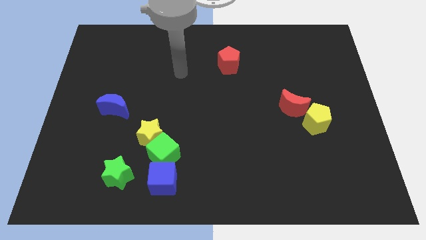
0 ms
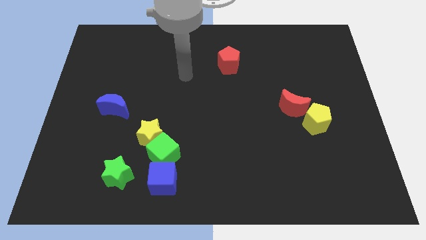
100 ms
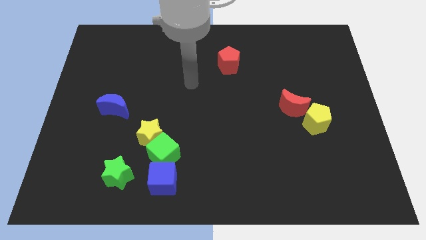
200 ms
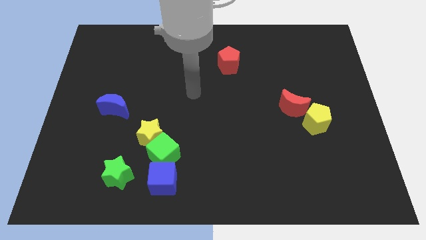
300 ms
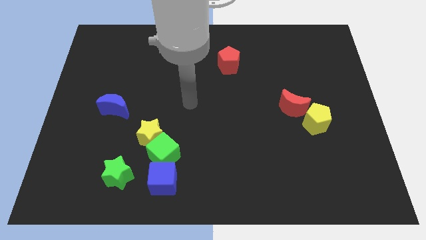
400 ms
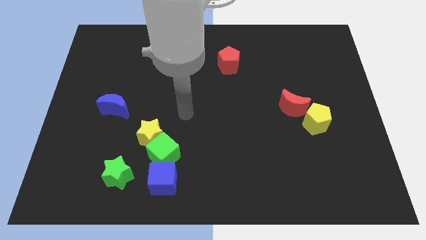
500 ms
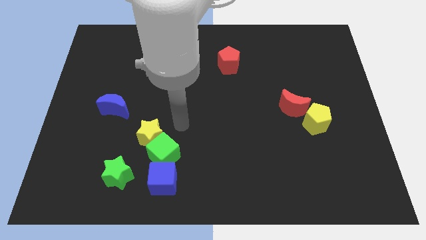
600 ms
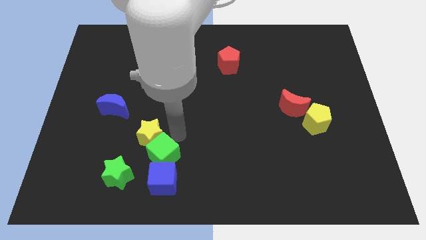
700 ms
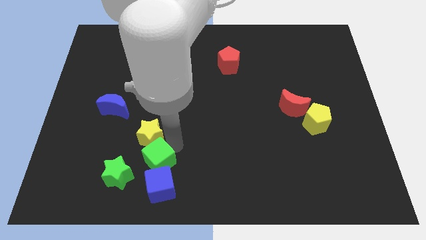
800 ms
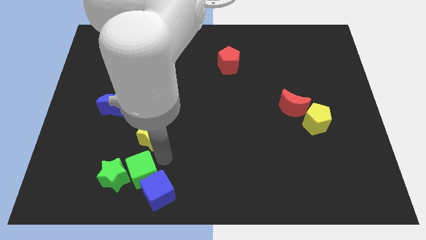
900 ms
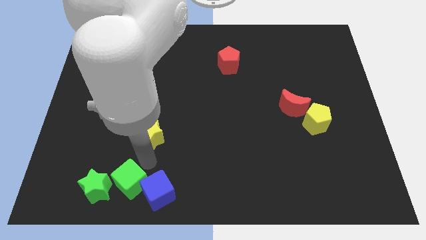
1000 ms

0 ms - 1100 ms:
pull the yellow star apart from the green cube

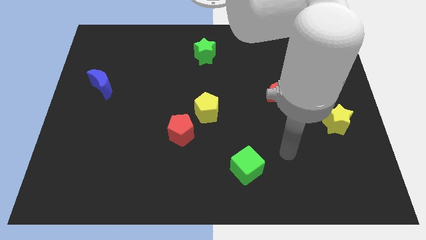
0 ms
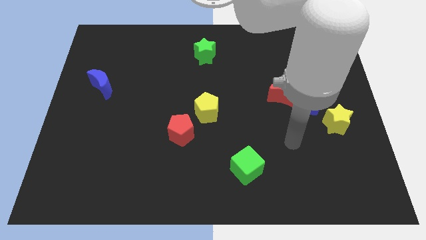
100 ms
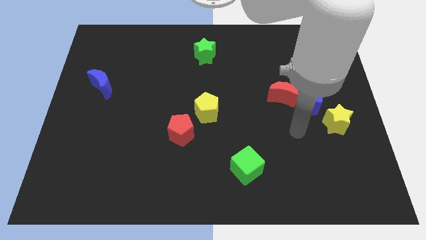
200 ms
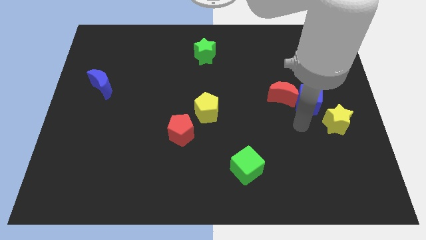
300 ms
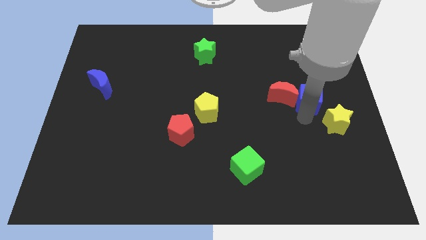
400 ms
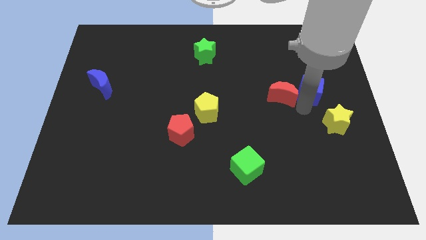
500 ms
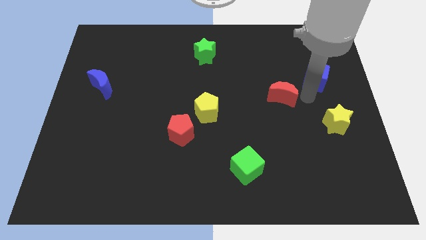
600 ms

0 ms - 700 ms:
move the red moon away from the blue cube

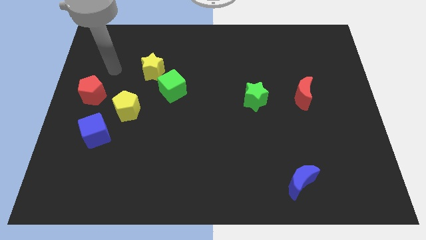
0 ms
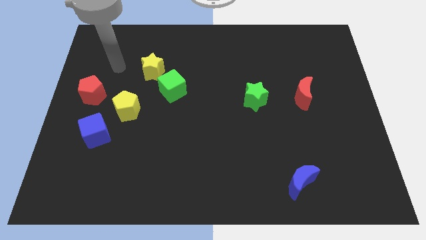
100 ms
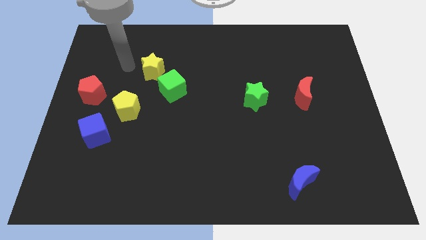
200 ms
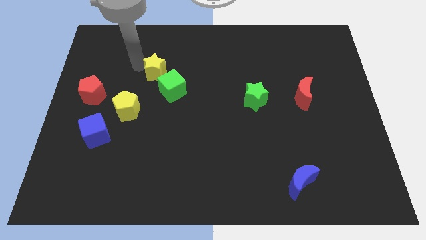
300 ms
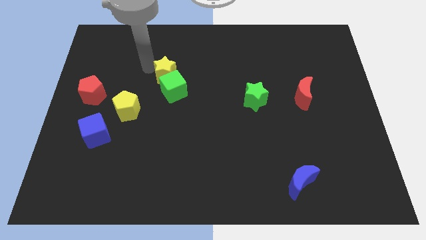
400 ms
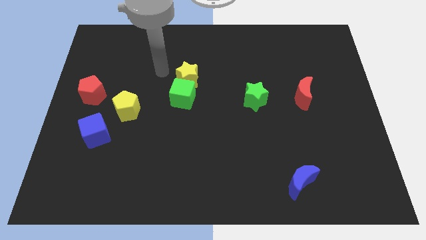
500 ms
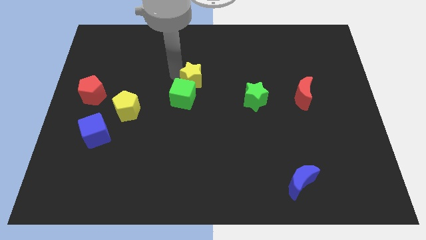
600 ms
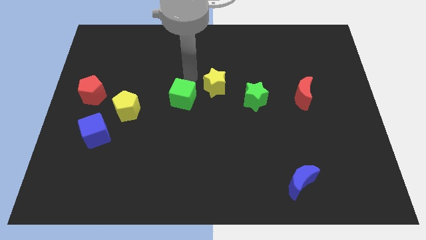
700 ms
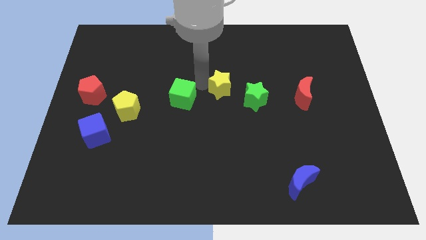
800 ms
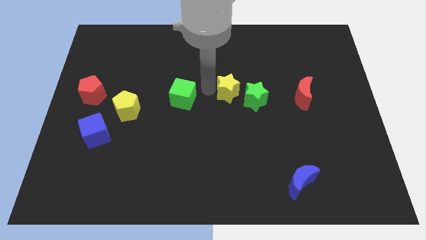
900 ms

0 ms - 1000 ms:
separate the green cube from the yellow star

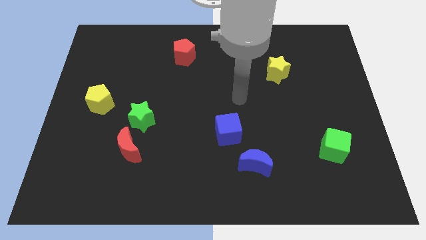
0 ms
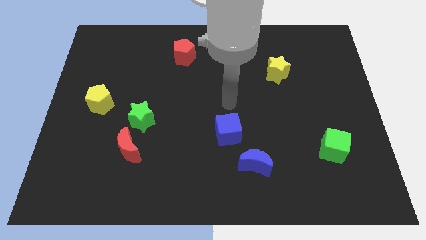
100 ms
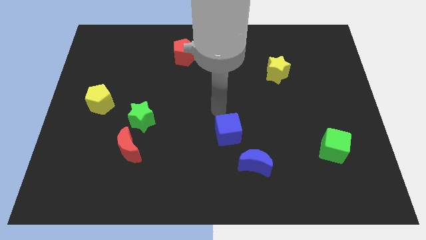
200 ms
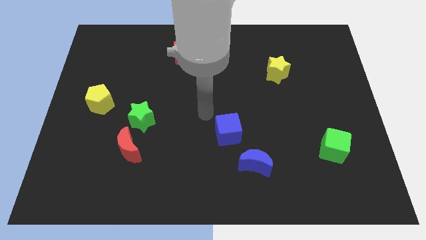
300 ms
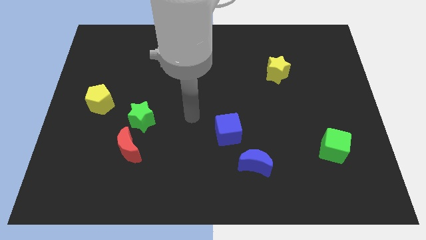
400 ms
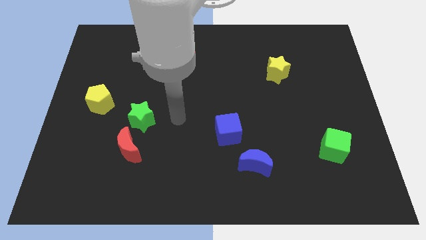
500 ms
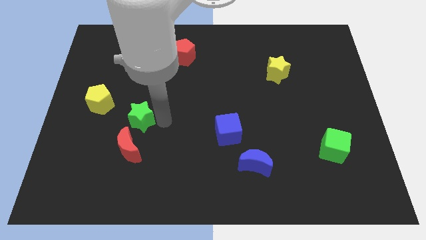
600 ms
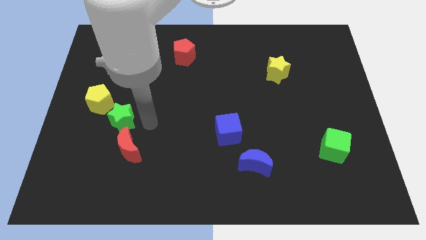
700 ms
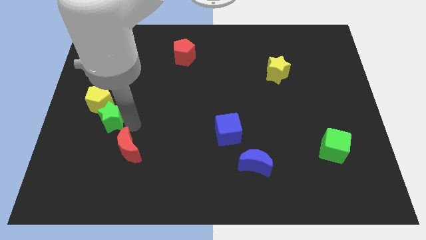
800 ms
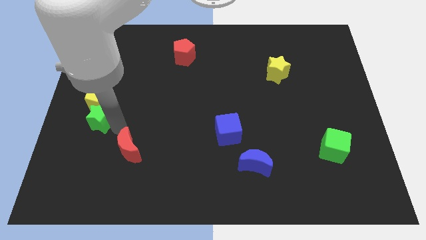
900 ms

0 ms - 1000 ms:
separate the red moon from the green star

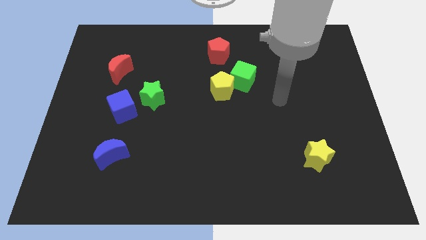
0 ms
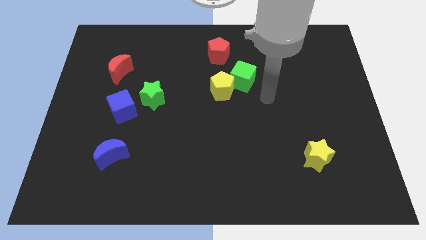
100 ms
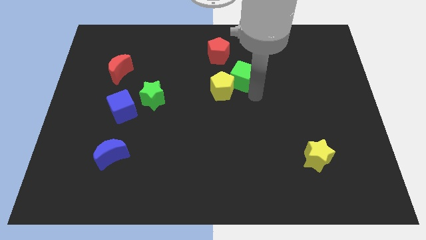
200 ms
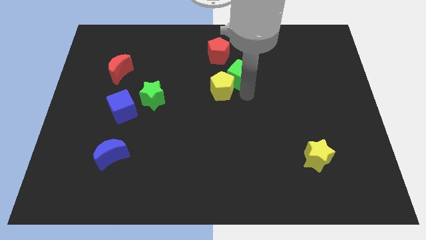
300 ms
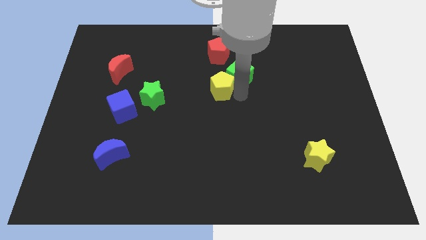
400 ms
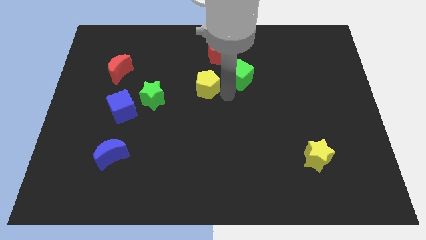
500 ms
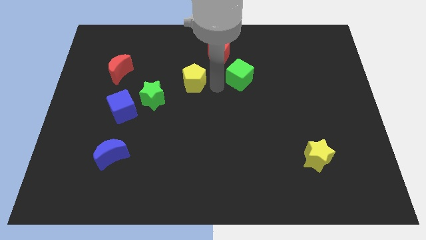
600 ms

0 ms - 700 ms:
move the green cube away from the yellow pentagon

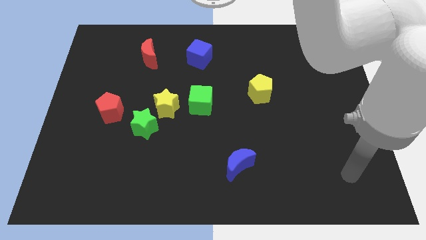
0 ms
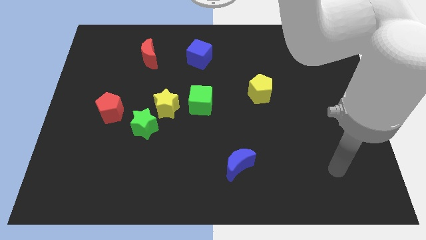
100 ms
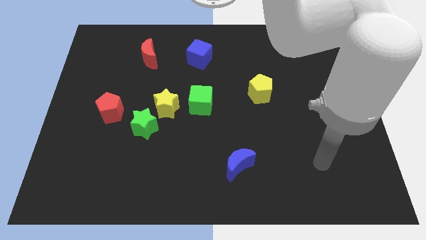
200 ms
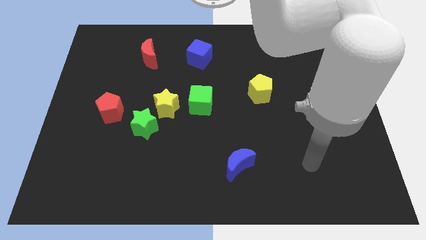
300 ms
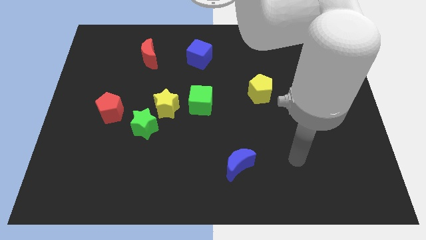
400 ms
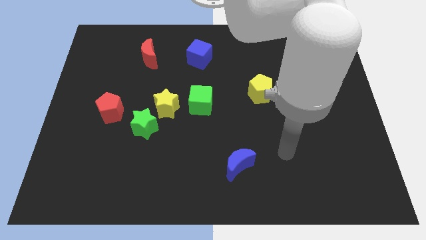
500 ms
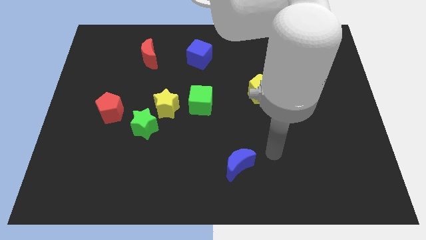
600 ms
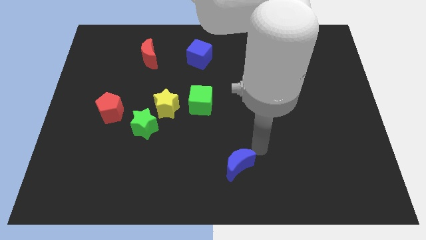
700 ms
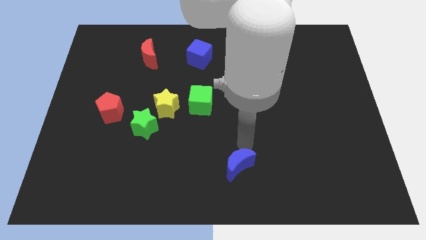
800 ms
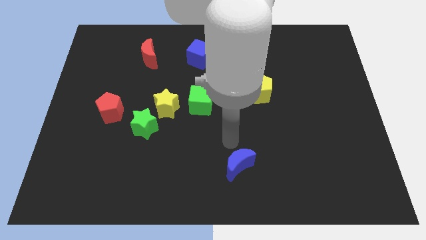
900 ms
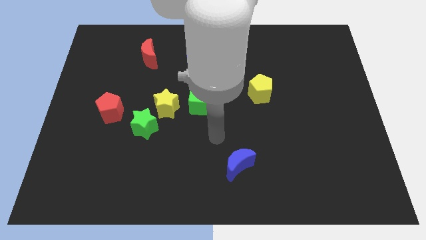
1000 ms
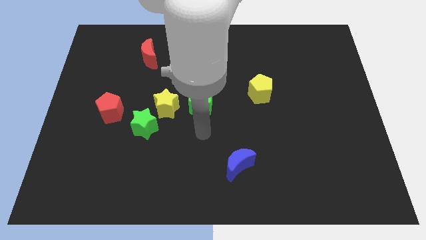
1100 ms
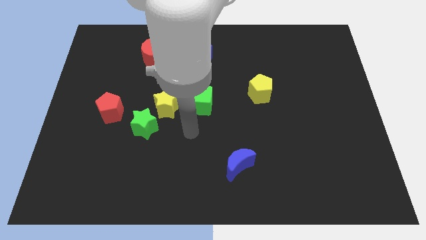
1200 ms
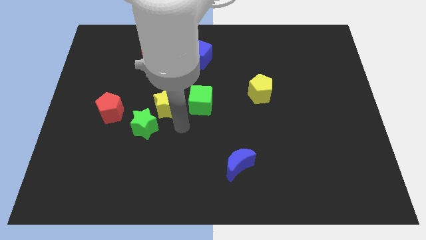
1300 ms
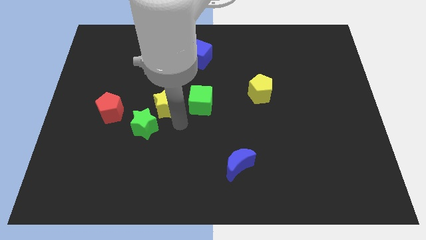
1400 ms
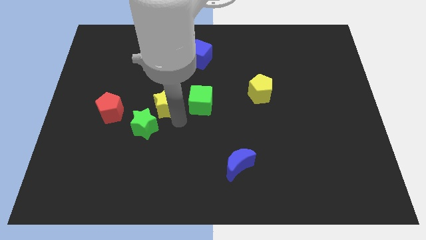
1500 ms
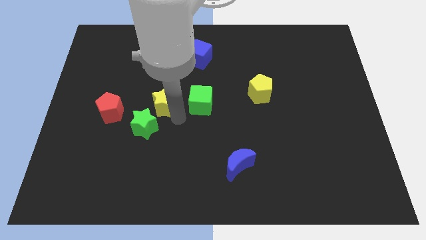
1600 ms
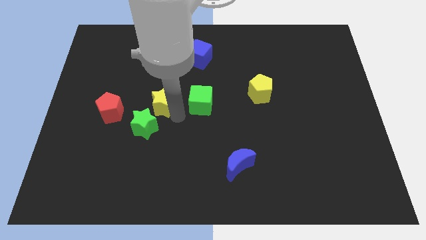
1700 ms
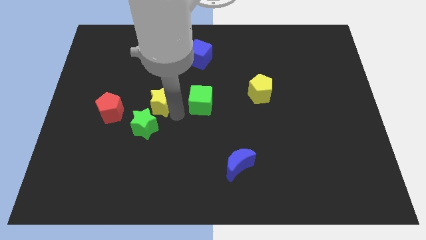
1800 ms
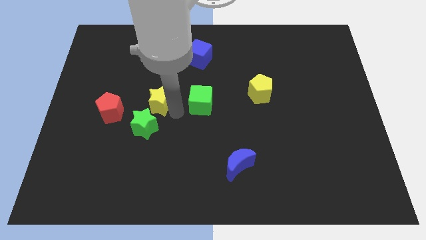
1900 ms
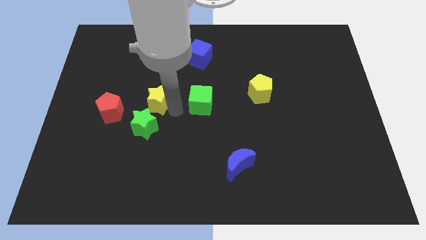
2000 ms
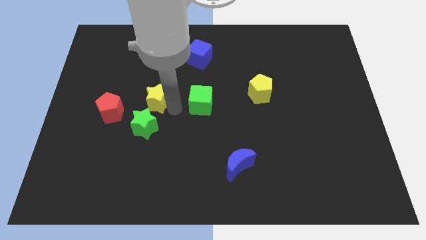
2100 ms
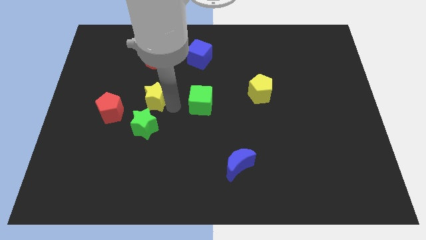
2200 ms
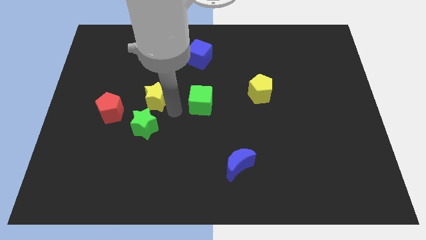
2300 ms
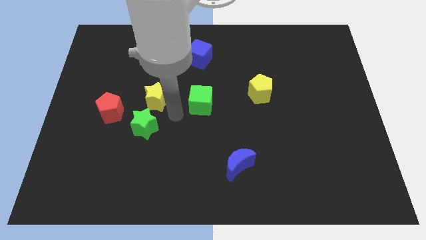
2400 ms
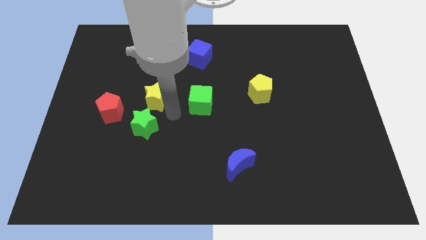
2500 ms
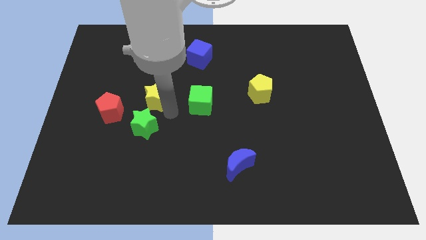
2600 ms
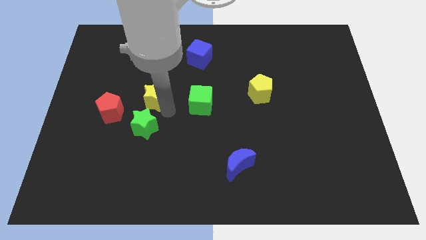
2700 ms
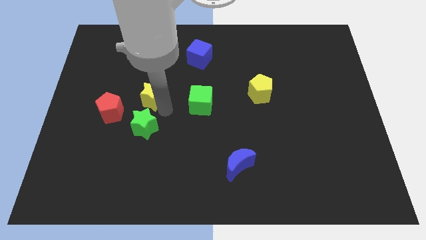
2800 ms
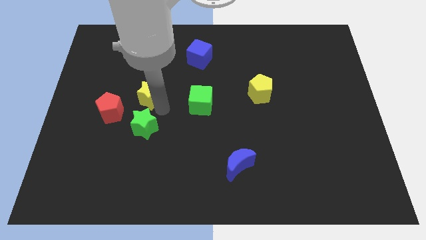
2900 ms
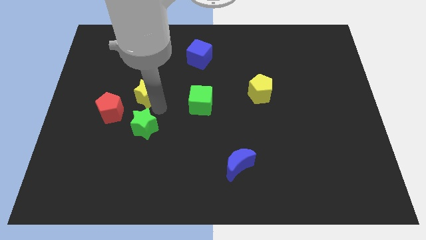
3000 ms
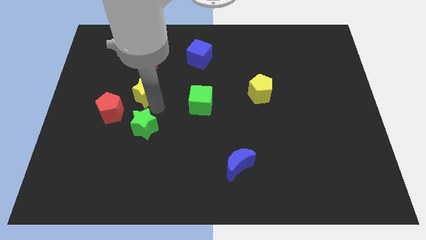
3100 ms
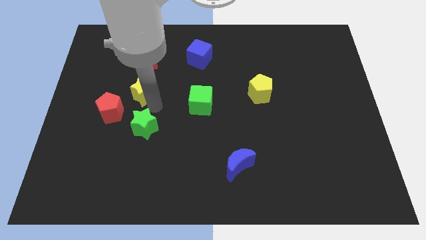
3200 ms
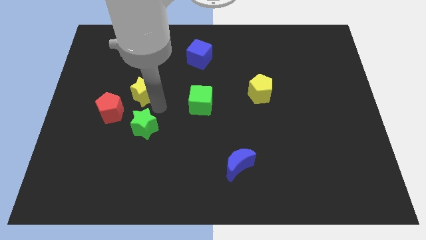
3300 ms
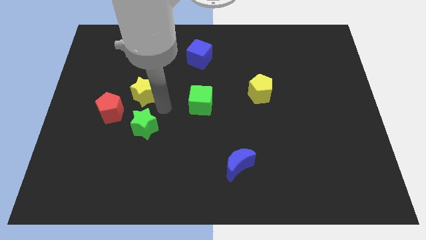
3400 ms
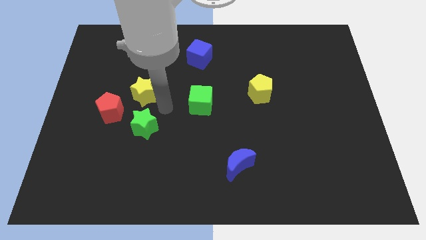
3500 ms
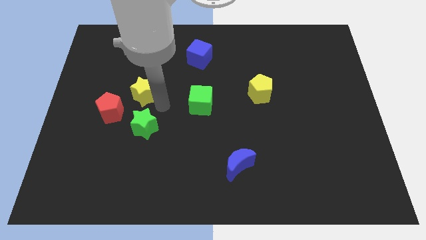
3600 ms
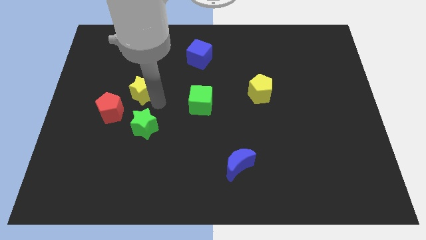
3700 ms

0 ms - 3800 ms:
move the yellow star away from the green star and green cube

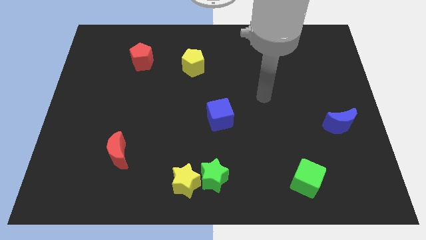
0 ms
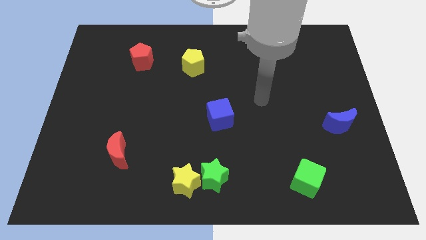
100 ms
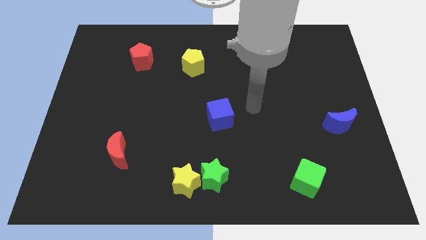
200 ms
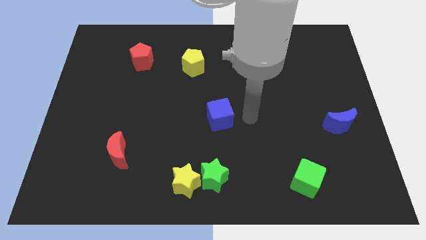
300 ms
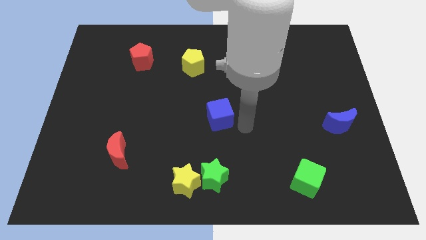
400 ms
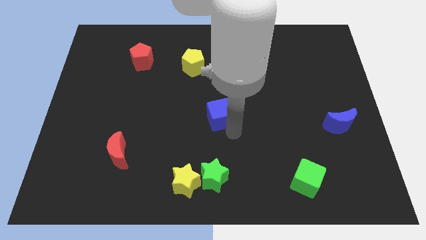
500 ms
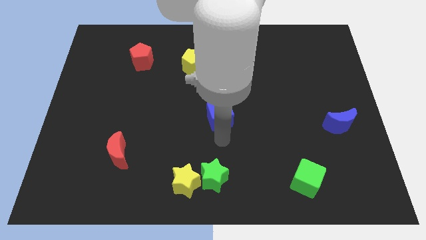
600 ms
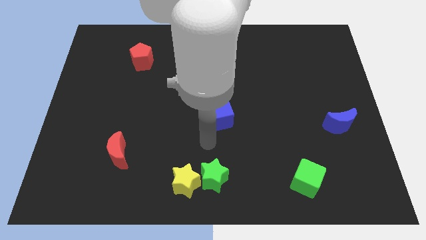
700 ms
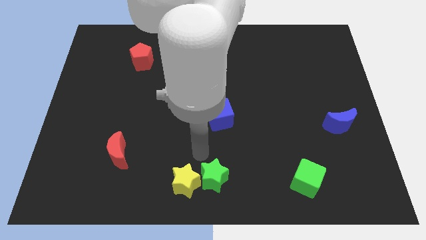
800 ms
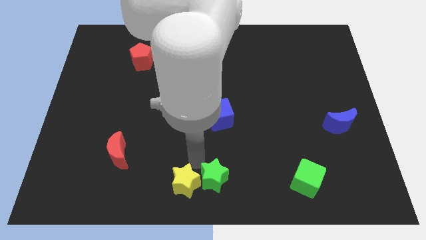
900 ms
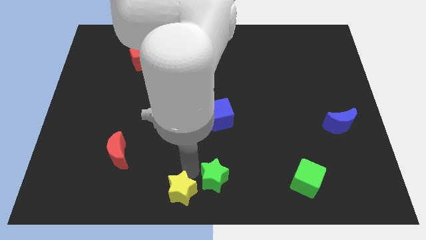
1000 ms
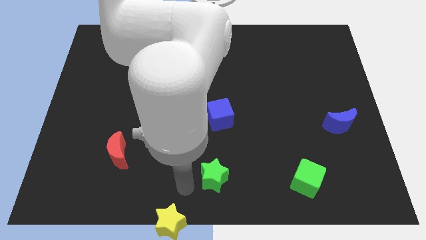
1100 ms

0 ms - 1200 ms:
separate the green star from the yellow star
